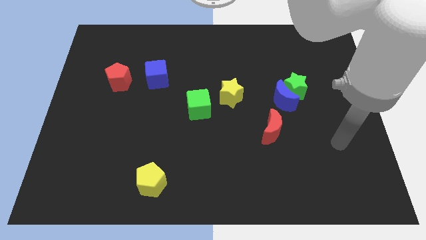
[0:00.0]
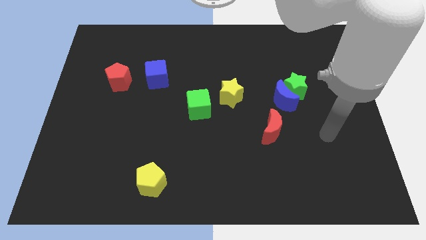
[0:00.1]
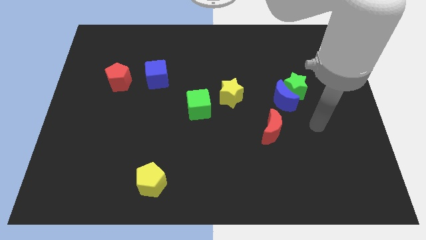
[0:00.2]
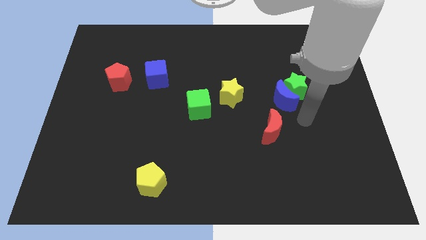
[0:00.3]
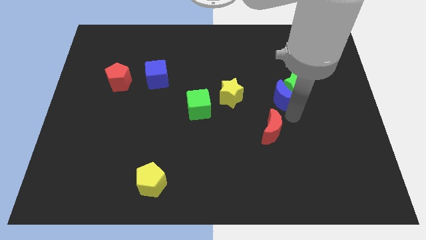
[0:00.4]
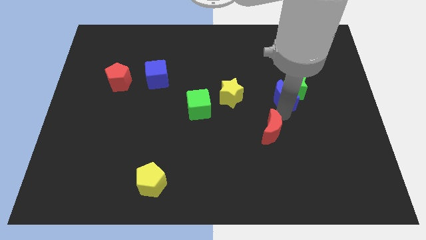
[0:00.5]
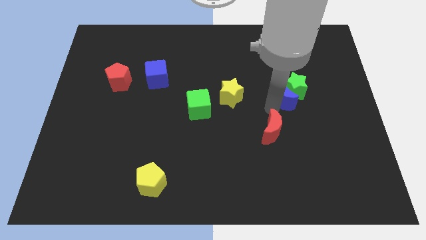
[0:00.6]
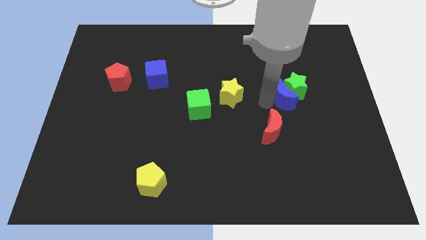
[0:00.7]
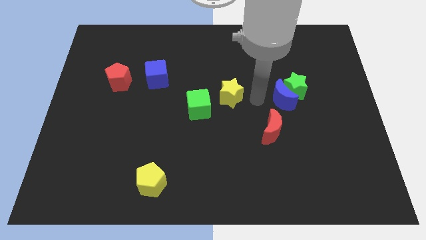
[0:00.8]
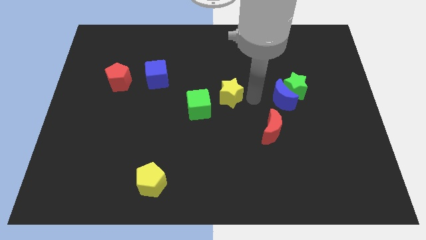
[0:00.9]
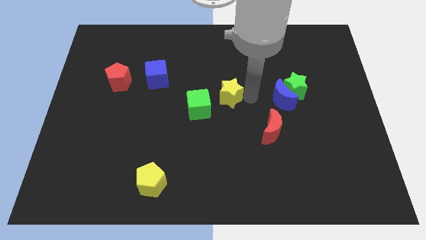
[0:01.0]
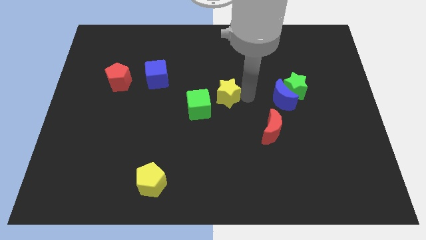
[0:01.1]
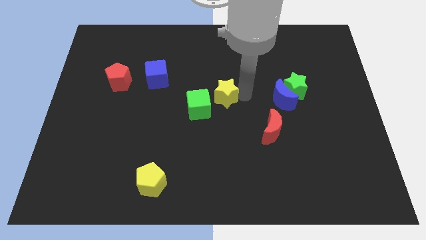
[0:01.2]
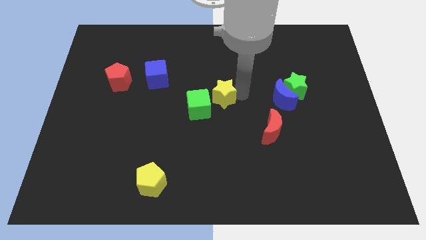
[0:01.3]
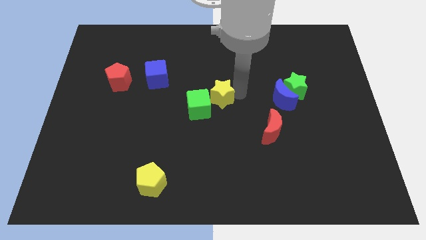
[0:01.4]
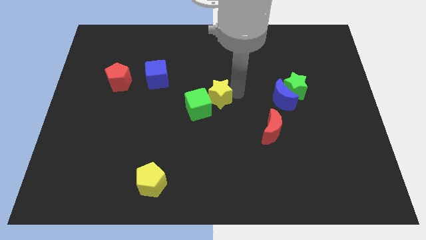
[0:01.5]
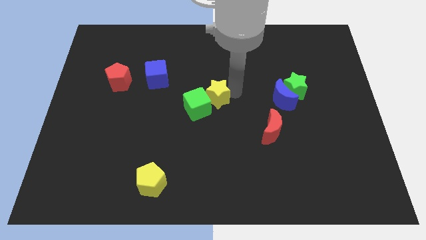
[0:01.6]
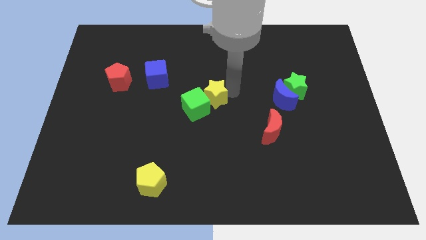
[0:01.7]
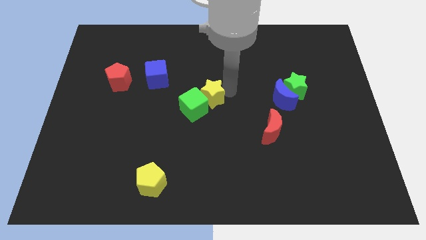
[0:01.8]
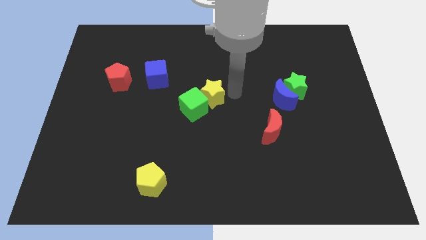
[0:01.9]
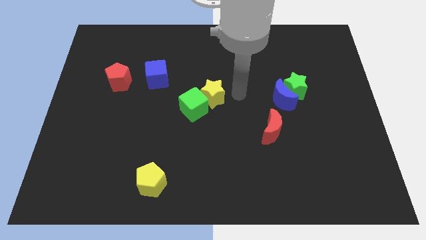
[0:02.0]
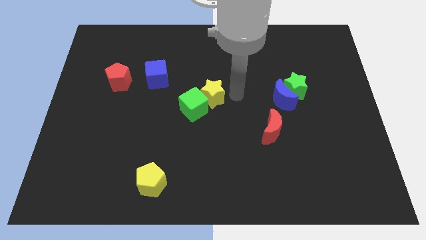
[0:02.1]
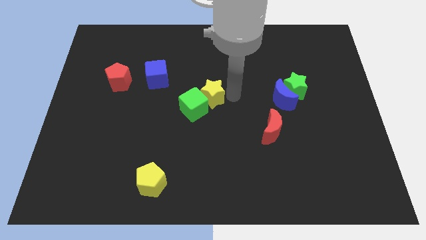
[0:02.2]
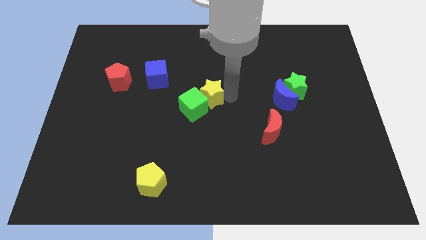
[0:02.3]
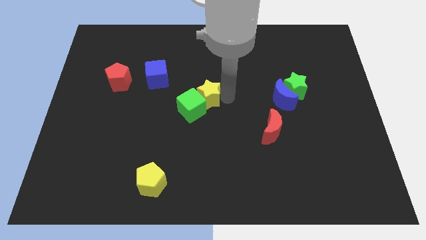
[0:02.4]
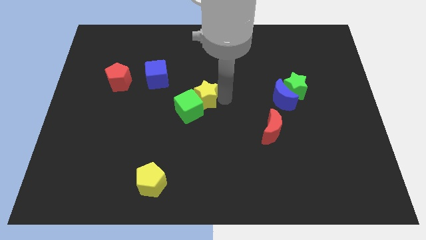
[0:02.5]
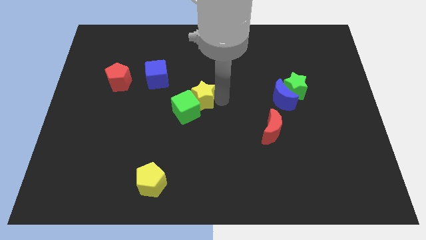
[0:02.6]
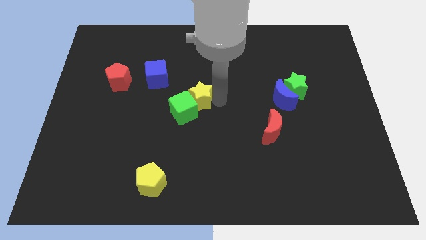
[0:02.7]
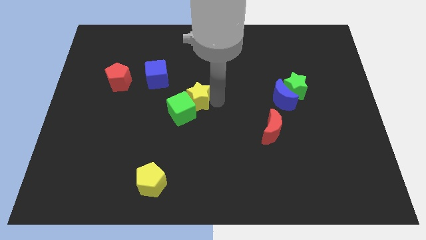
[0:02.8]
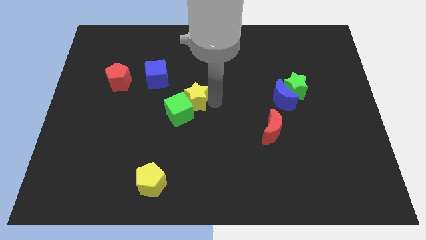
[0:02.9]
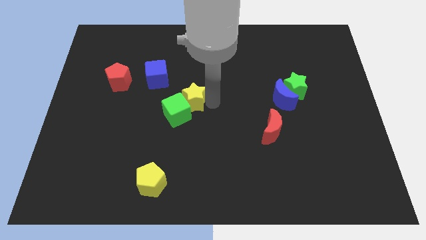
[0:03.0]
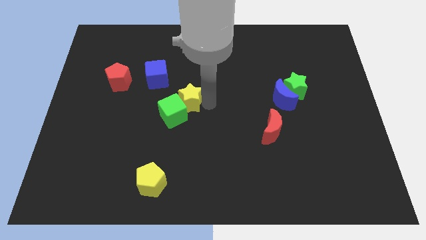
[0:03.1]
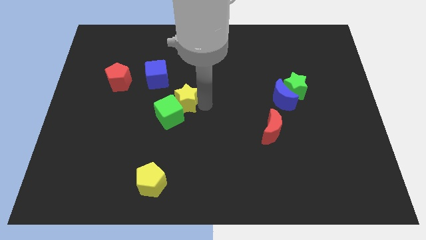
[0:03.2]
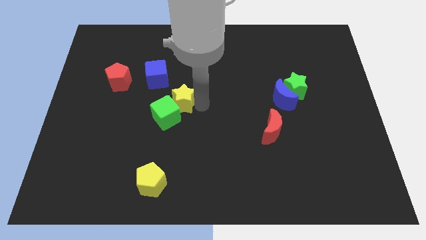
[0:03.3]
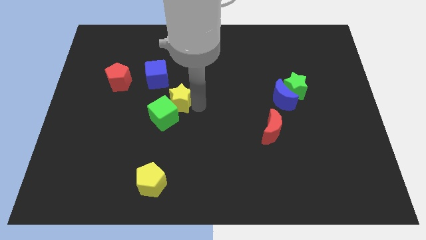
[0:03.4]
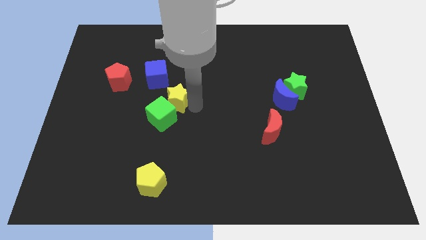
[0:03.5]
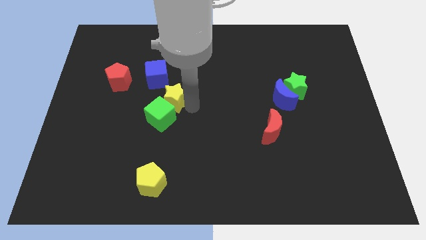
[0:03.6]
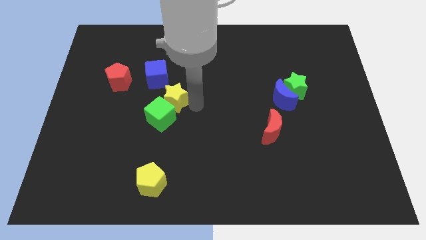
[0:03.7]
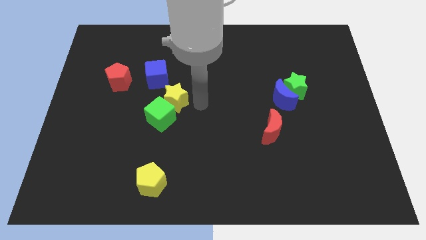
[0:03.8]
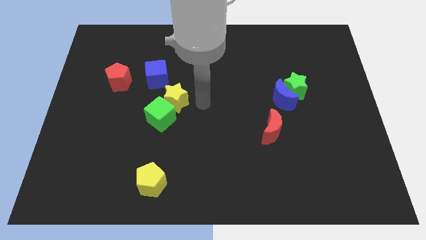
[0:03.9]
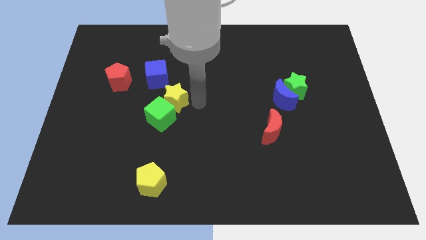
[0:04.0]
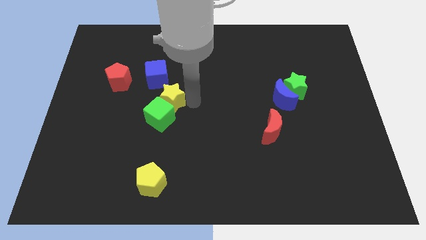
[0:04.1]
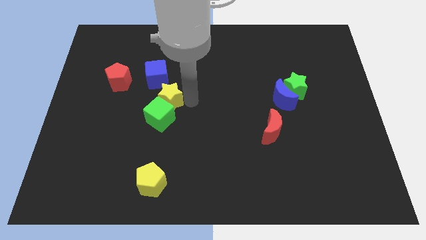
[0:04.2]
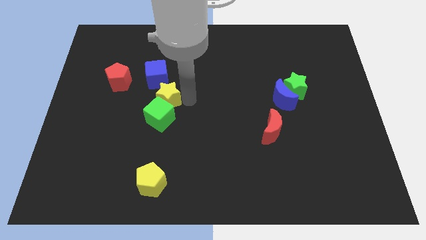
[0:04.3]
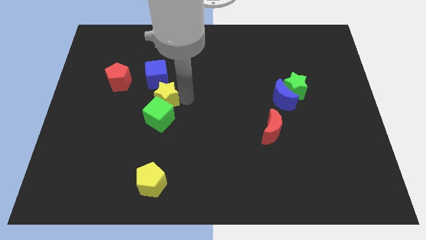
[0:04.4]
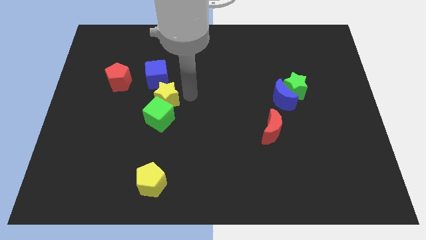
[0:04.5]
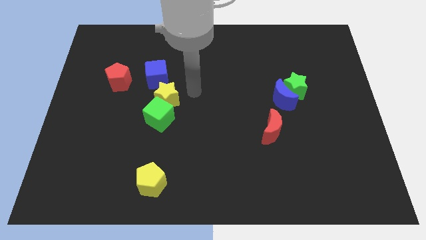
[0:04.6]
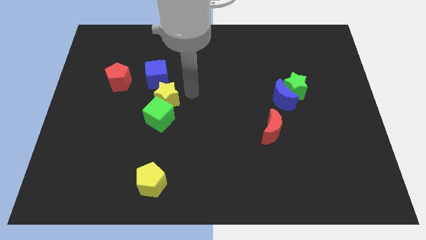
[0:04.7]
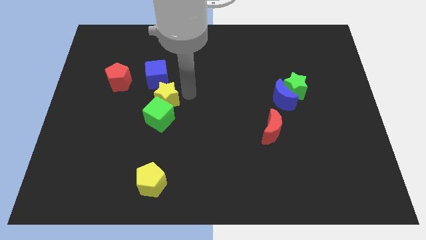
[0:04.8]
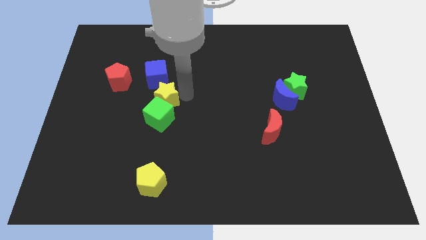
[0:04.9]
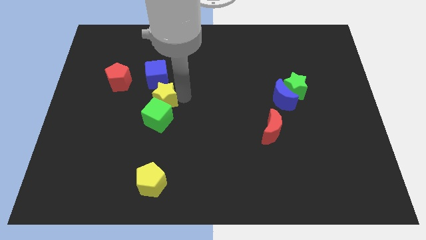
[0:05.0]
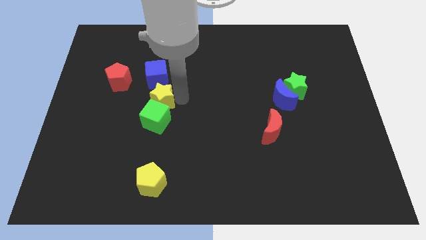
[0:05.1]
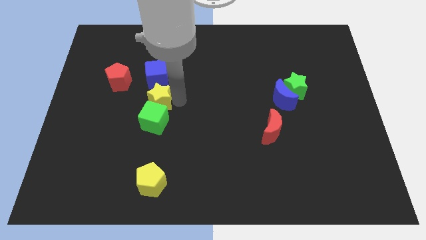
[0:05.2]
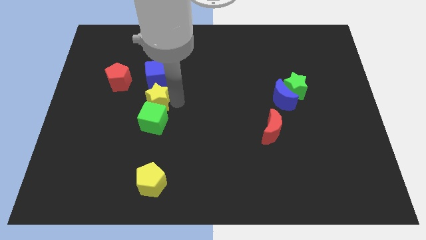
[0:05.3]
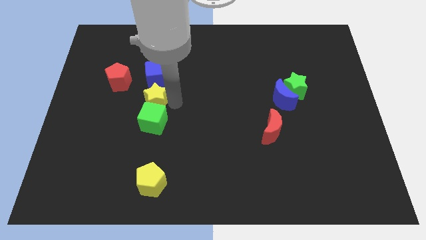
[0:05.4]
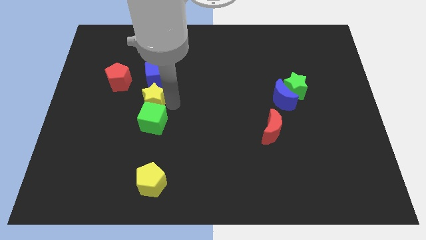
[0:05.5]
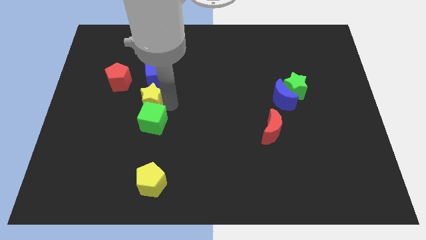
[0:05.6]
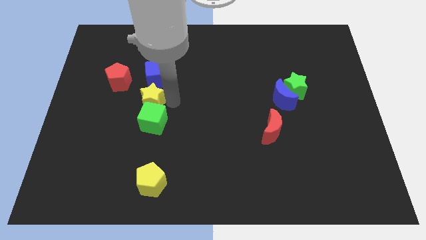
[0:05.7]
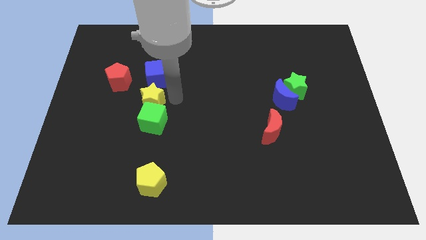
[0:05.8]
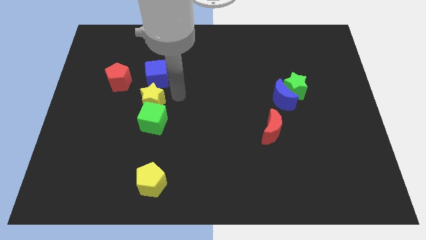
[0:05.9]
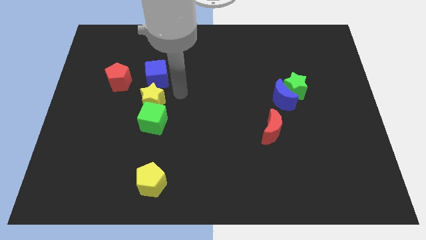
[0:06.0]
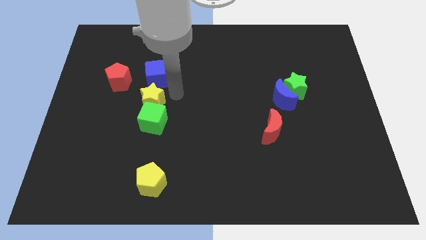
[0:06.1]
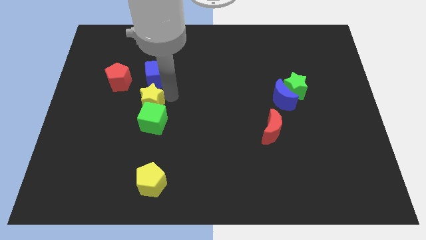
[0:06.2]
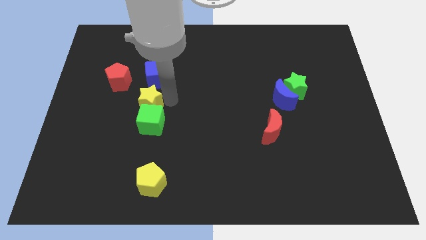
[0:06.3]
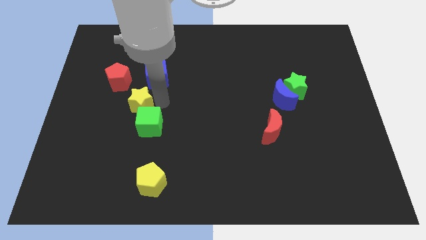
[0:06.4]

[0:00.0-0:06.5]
push the yellow star to the left

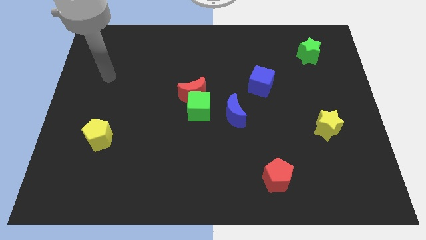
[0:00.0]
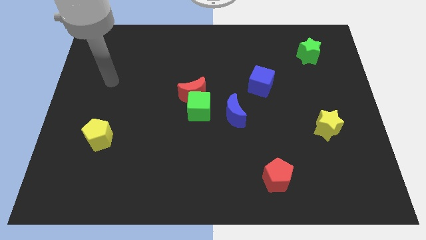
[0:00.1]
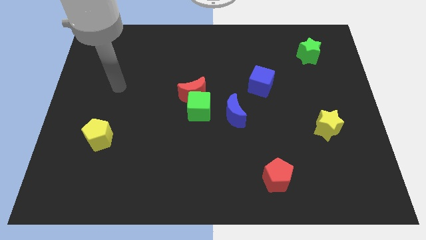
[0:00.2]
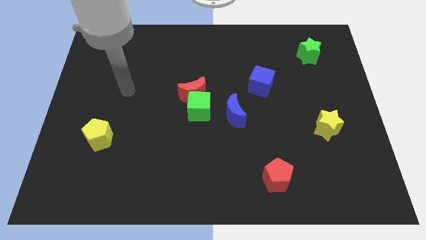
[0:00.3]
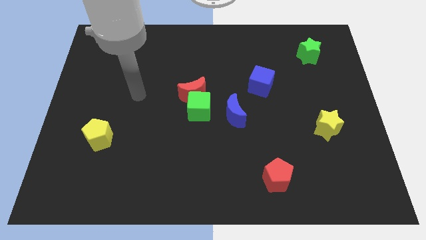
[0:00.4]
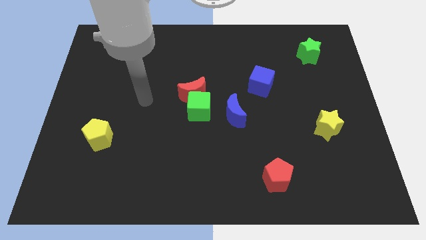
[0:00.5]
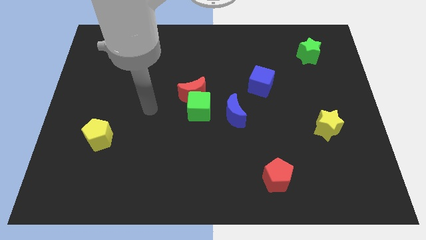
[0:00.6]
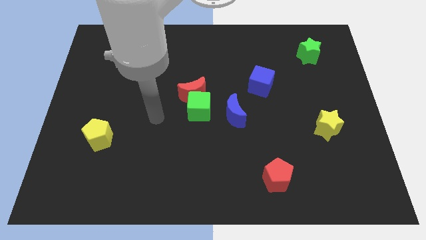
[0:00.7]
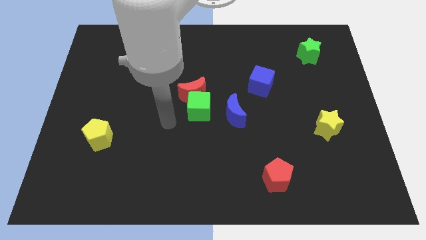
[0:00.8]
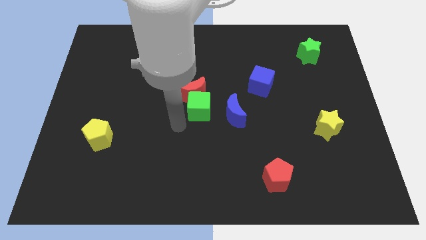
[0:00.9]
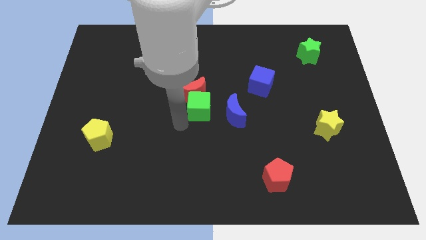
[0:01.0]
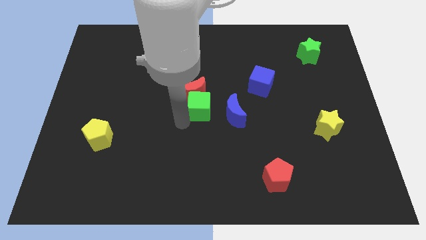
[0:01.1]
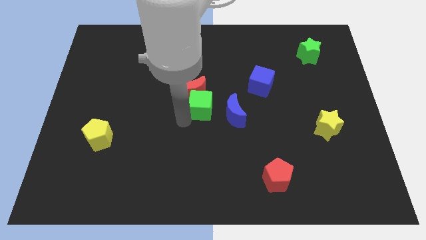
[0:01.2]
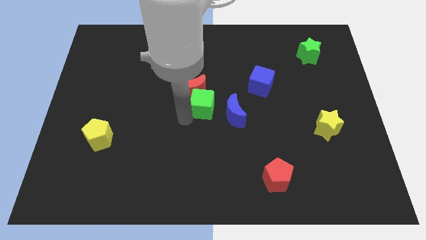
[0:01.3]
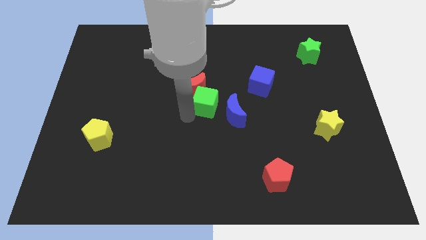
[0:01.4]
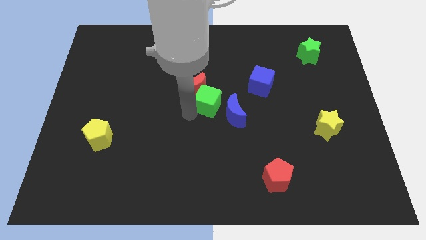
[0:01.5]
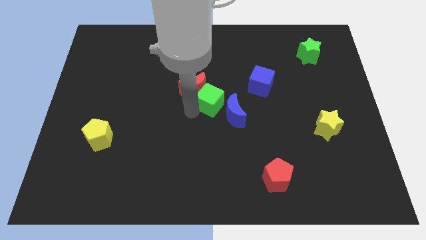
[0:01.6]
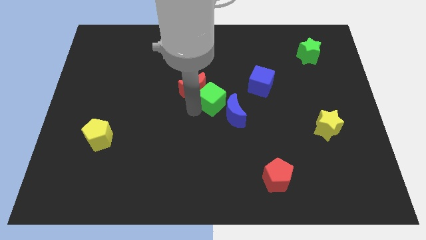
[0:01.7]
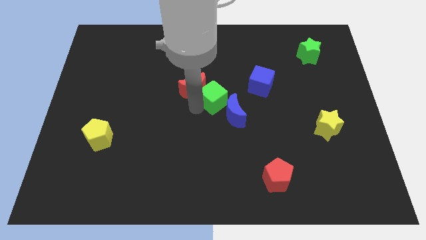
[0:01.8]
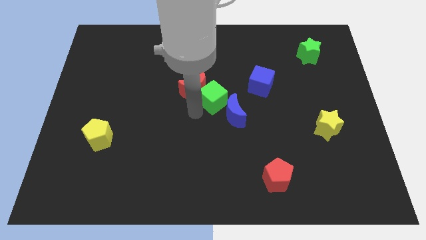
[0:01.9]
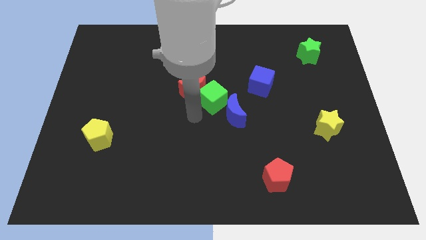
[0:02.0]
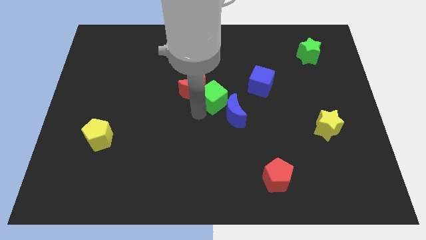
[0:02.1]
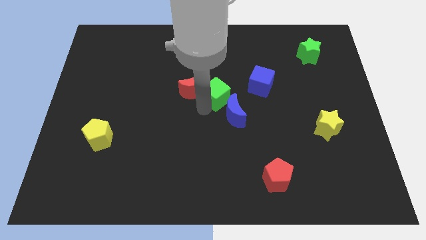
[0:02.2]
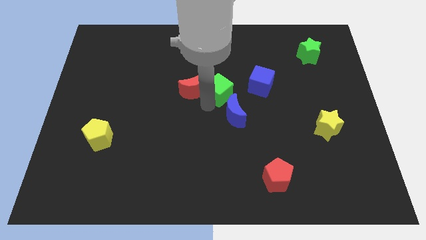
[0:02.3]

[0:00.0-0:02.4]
slightly move the green cube up and right diagonally
